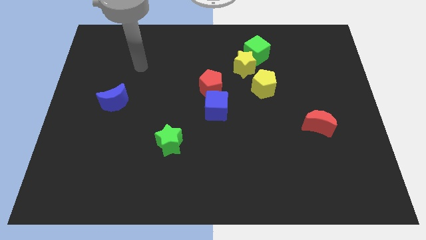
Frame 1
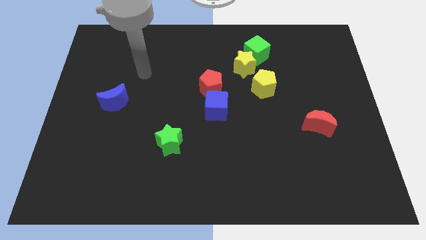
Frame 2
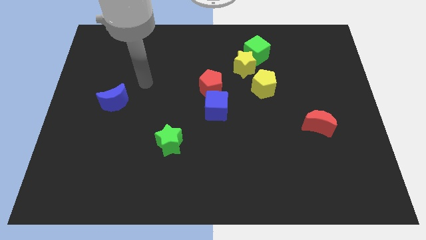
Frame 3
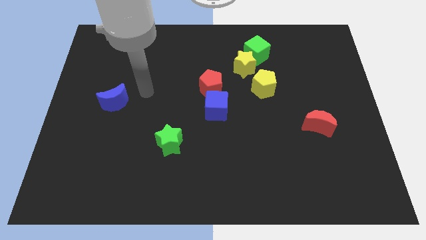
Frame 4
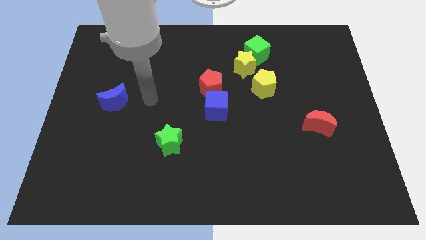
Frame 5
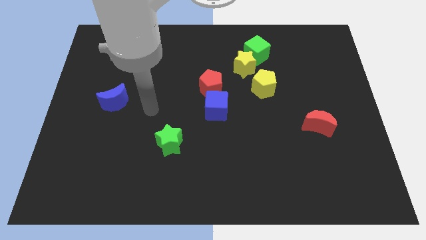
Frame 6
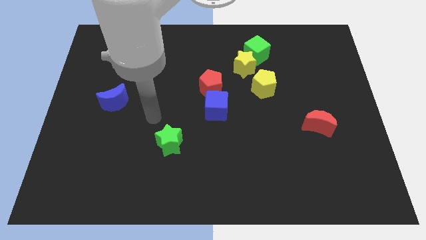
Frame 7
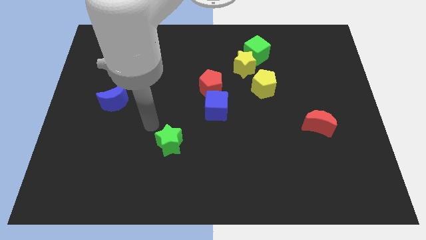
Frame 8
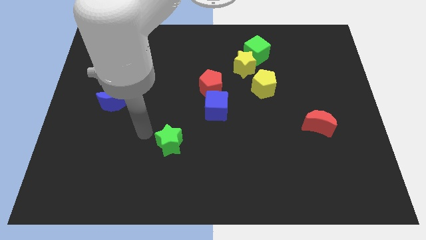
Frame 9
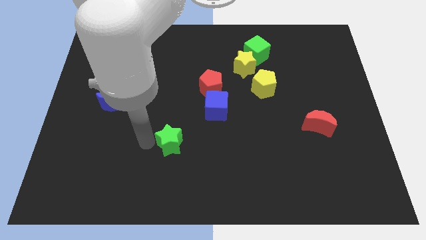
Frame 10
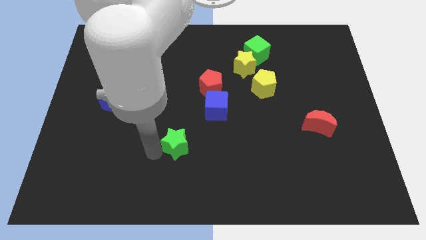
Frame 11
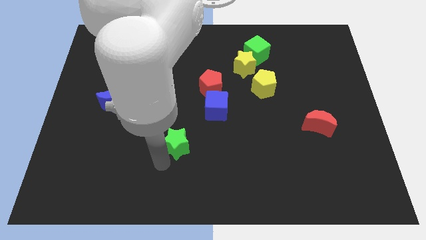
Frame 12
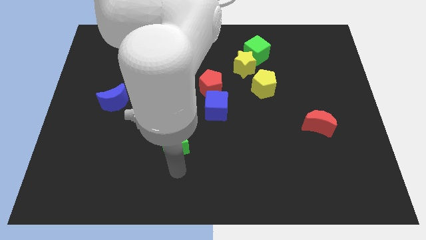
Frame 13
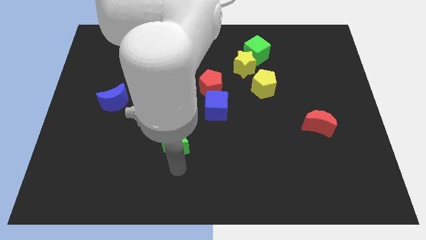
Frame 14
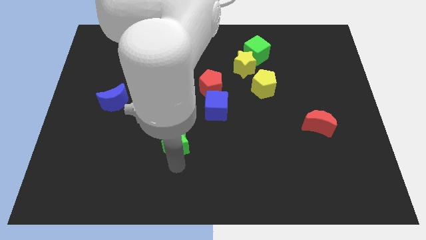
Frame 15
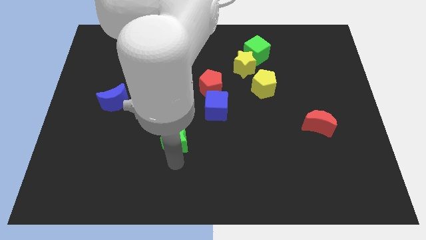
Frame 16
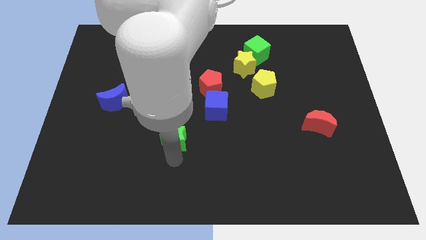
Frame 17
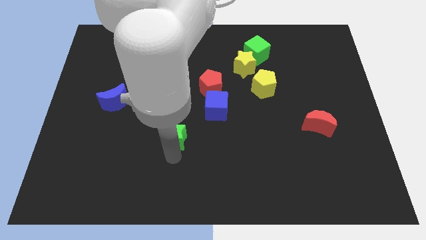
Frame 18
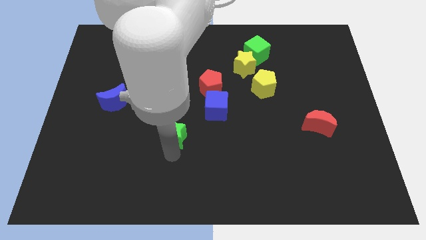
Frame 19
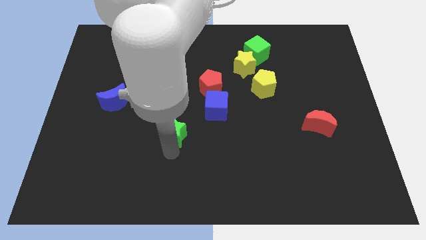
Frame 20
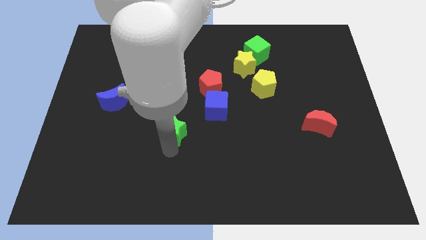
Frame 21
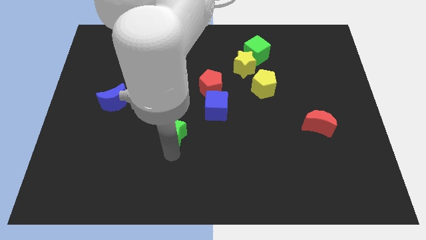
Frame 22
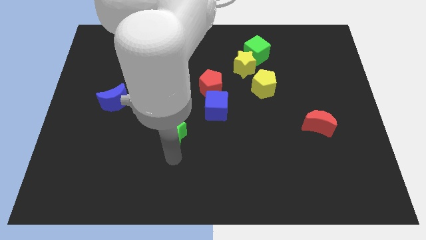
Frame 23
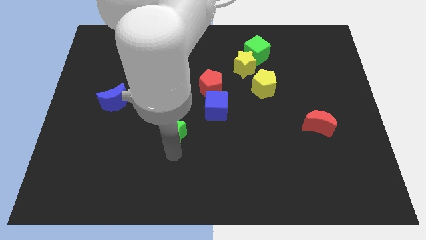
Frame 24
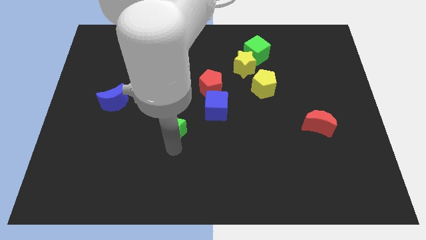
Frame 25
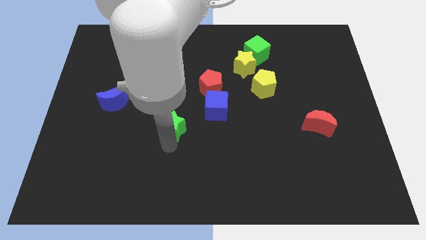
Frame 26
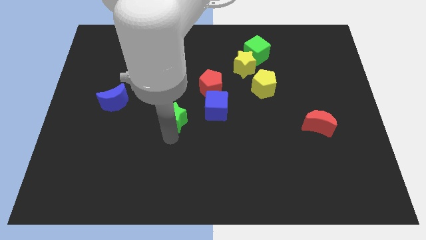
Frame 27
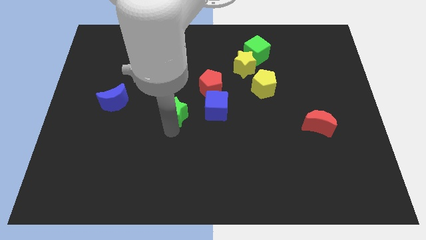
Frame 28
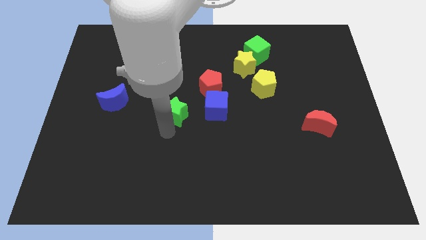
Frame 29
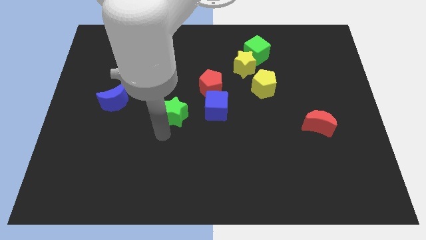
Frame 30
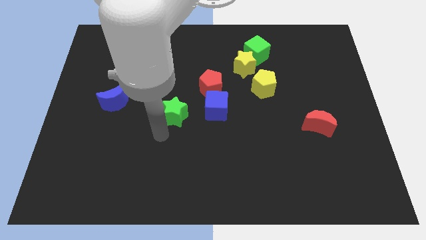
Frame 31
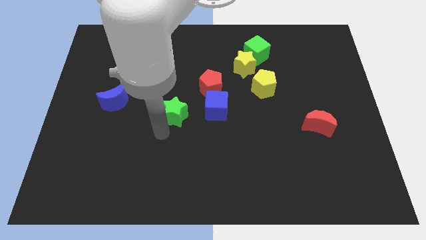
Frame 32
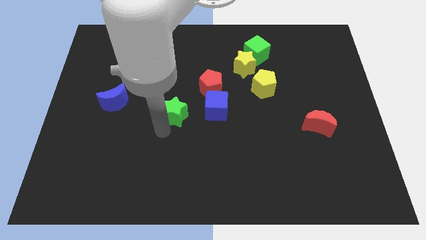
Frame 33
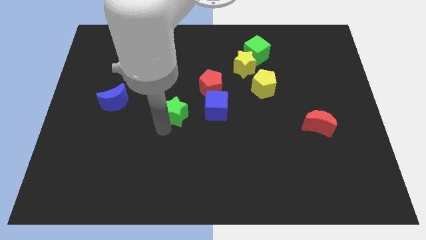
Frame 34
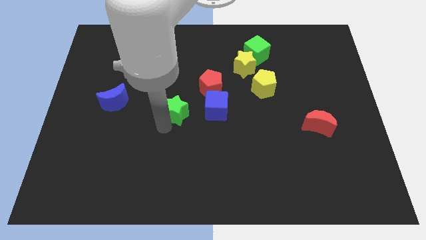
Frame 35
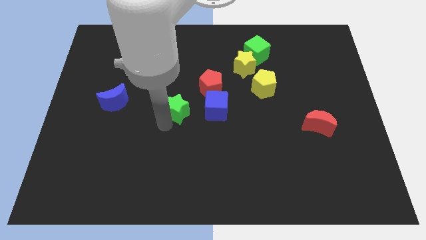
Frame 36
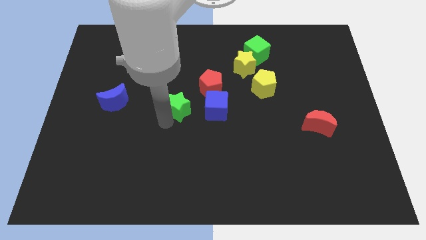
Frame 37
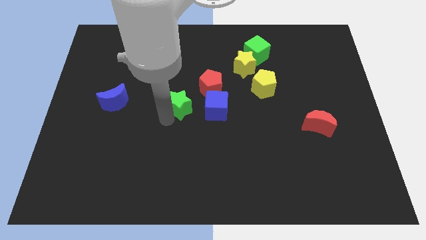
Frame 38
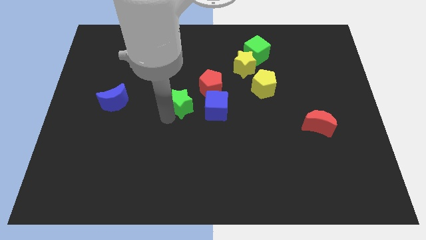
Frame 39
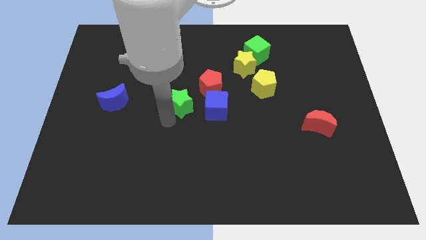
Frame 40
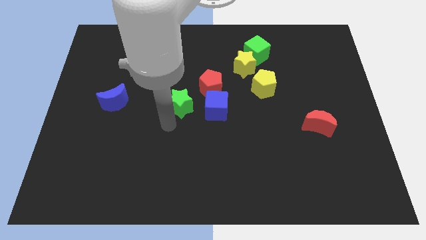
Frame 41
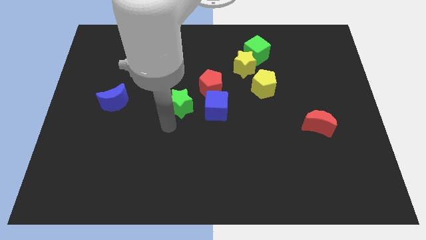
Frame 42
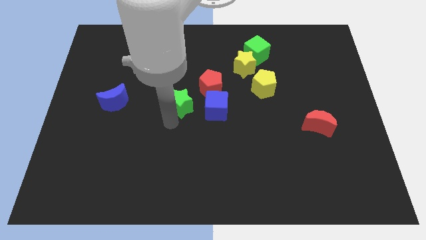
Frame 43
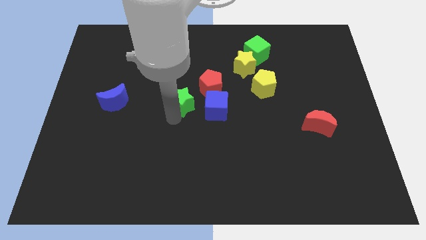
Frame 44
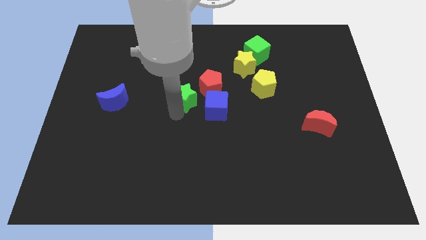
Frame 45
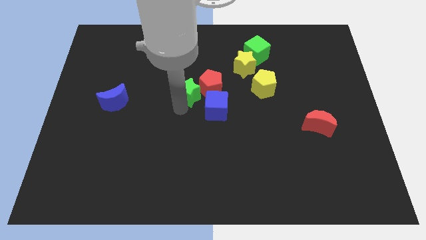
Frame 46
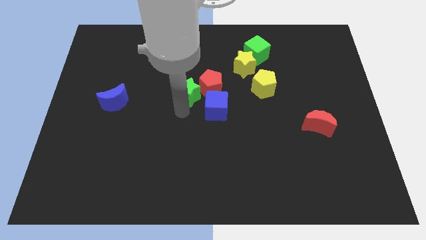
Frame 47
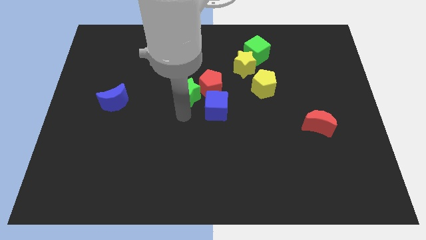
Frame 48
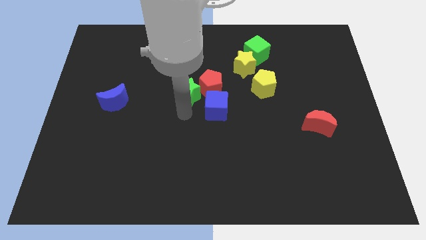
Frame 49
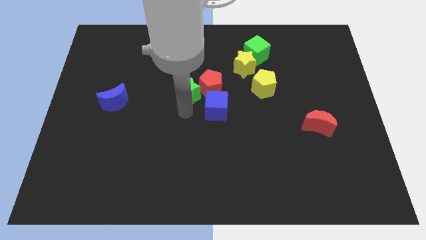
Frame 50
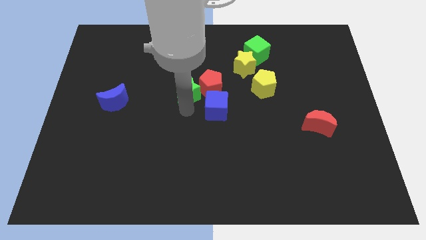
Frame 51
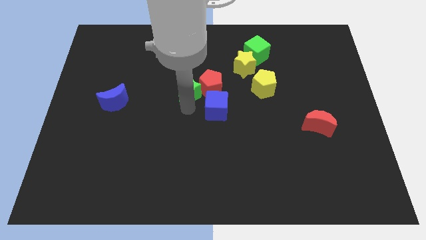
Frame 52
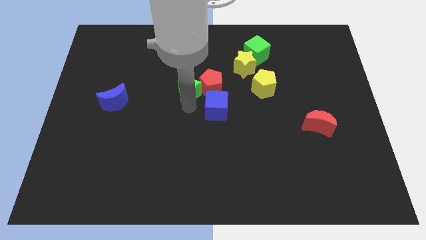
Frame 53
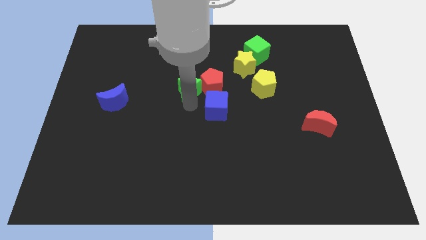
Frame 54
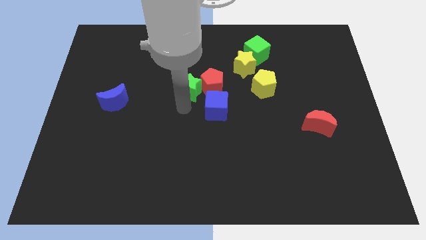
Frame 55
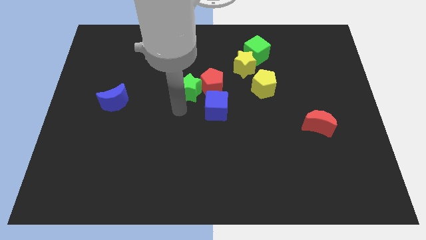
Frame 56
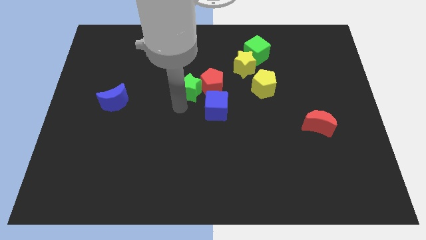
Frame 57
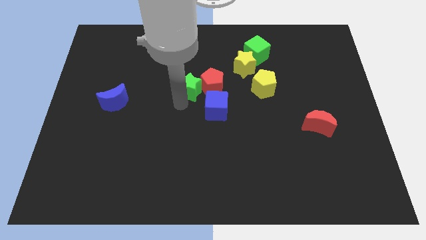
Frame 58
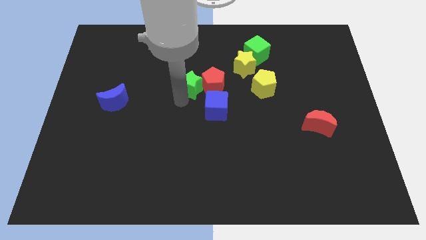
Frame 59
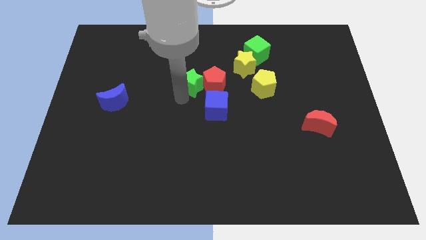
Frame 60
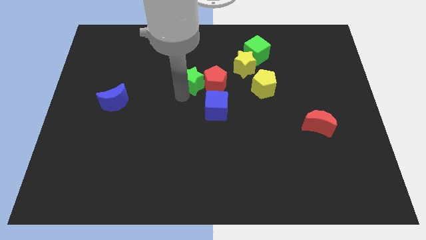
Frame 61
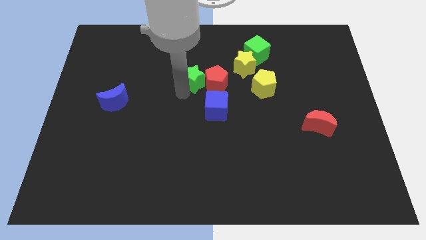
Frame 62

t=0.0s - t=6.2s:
slide the green star left of the yellow star
